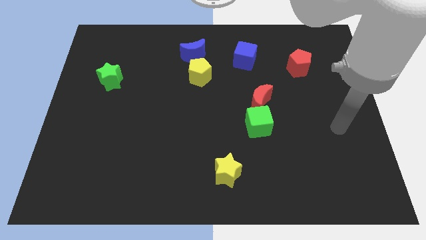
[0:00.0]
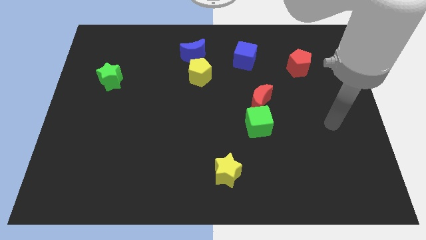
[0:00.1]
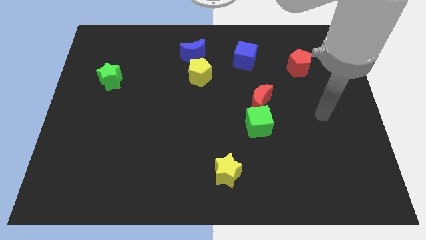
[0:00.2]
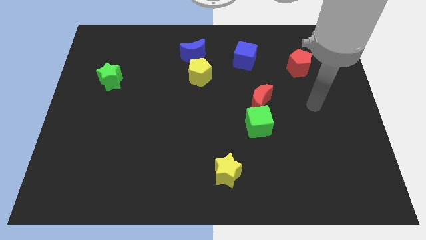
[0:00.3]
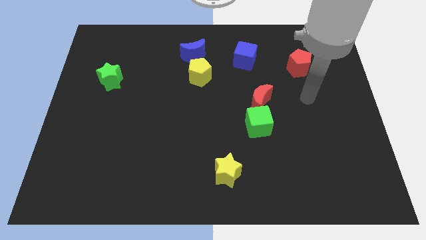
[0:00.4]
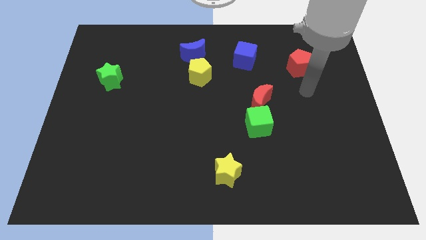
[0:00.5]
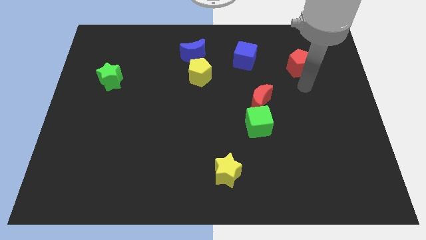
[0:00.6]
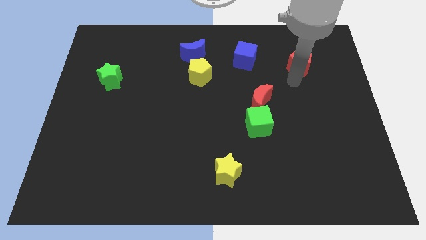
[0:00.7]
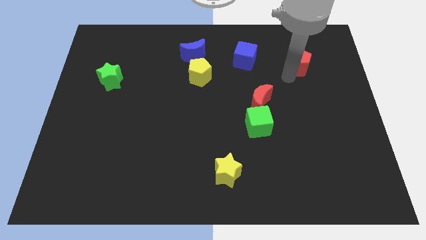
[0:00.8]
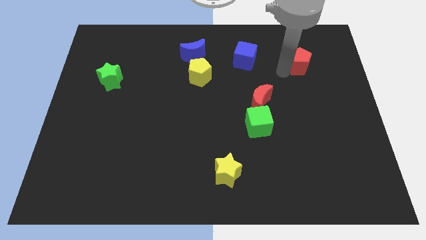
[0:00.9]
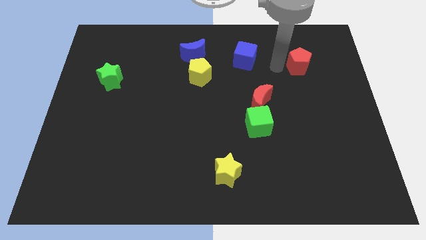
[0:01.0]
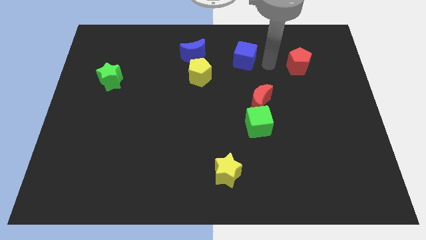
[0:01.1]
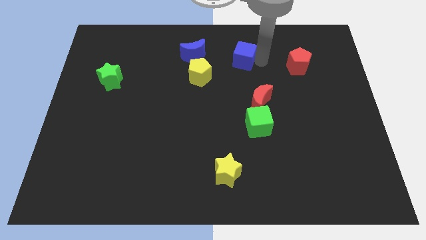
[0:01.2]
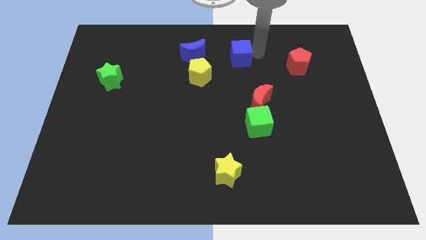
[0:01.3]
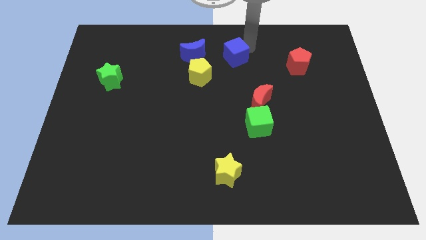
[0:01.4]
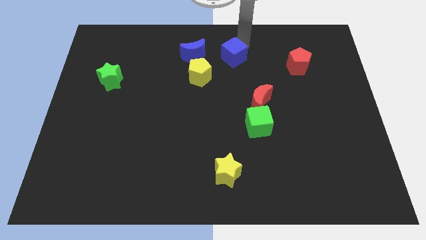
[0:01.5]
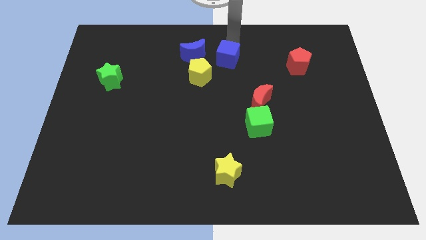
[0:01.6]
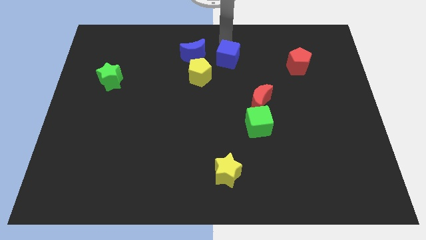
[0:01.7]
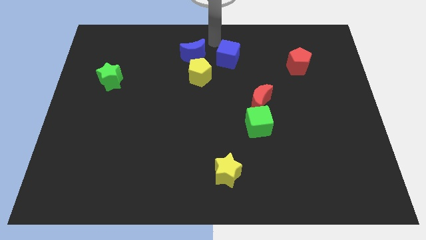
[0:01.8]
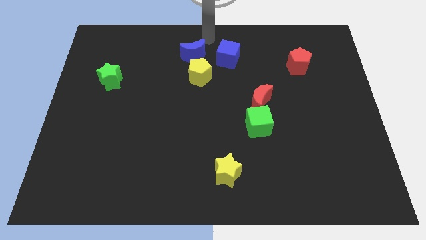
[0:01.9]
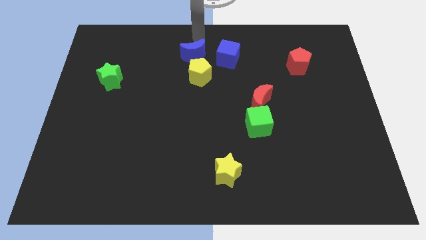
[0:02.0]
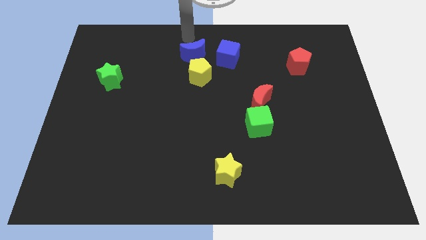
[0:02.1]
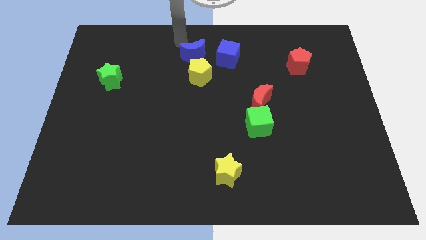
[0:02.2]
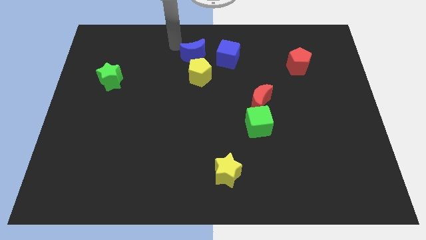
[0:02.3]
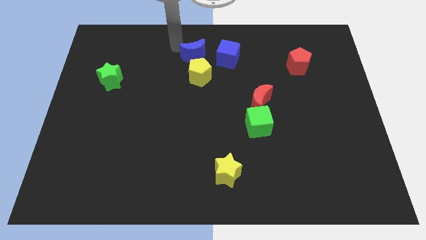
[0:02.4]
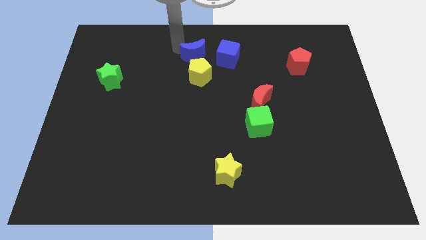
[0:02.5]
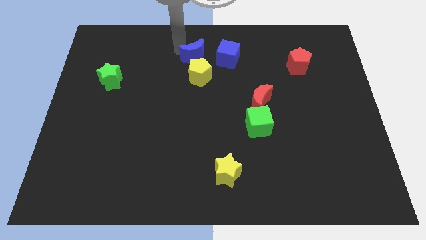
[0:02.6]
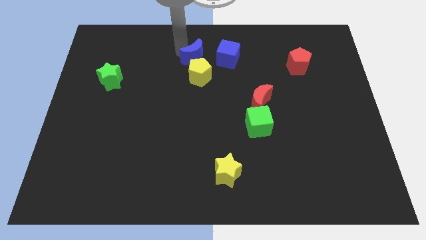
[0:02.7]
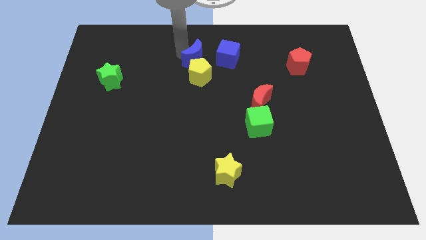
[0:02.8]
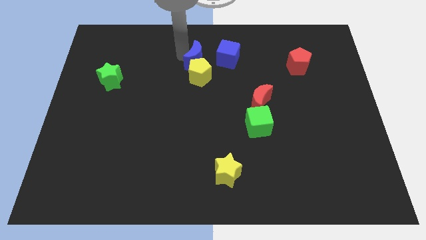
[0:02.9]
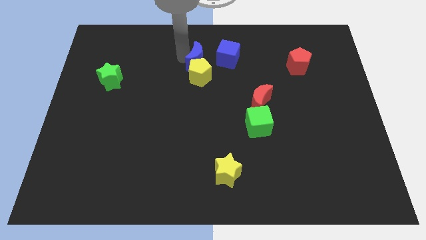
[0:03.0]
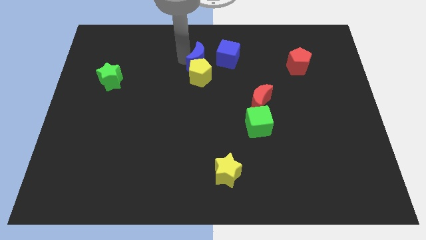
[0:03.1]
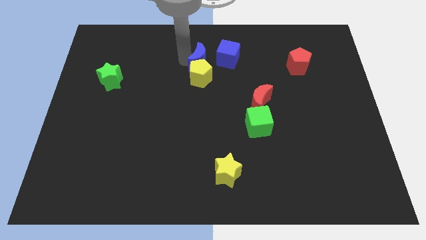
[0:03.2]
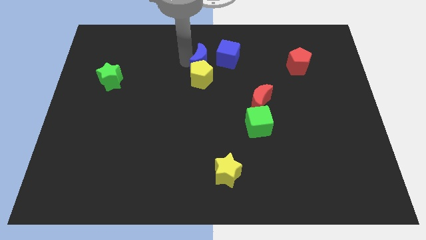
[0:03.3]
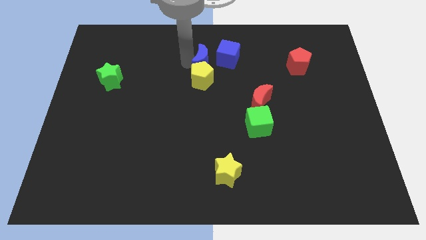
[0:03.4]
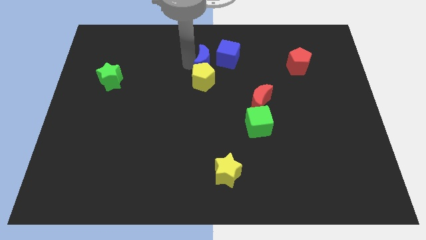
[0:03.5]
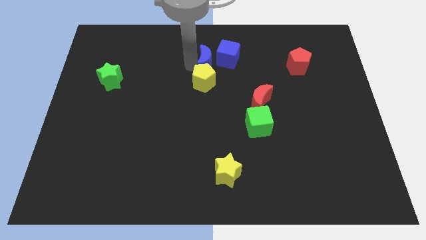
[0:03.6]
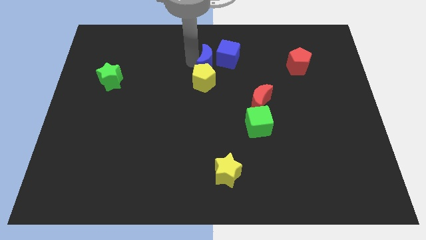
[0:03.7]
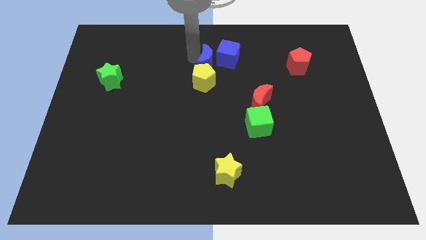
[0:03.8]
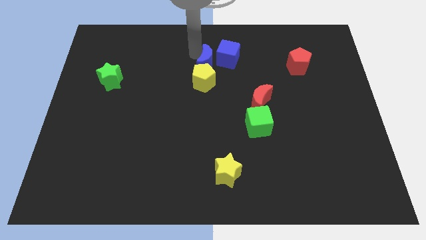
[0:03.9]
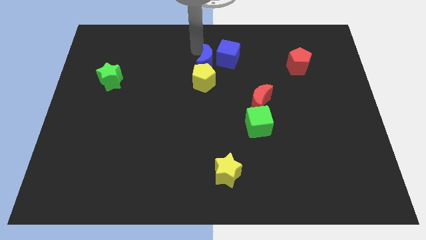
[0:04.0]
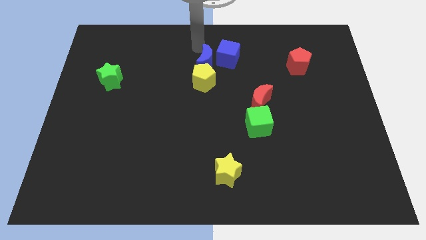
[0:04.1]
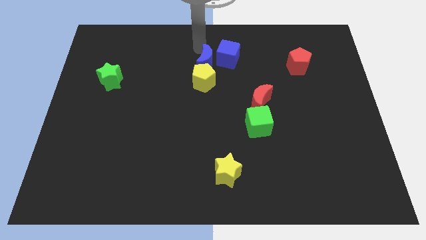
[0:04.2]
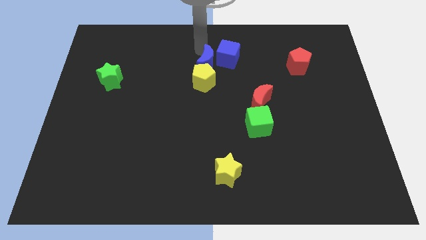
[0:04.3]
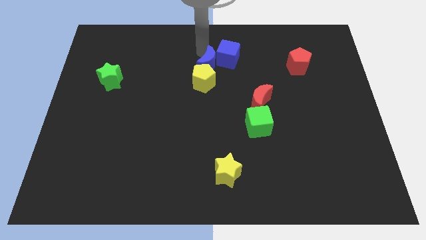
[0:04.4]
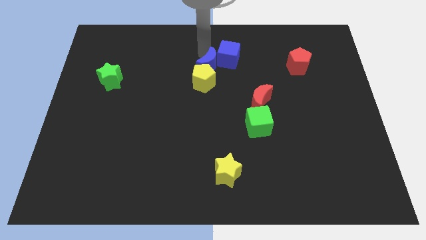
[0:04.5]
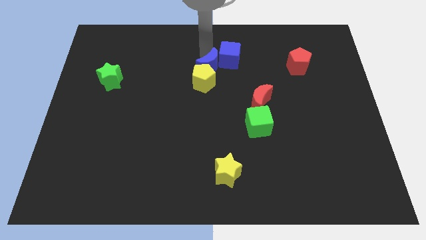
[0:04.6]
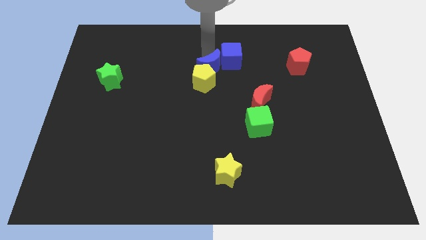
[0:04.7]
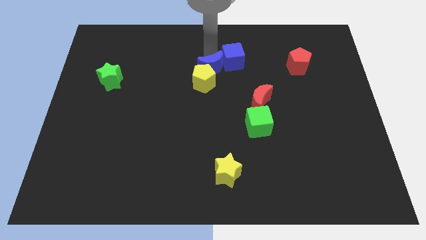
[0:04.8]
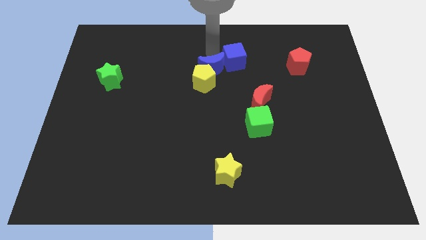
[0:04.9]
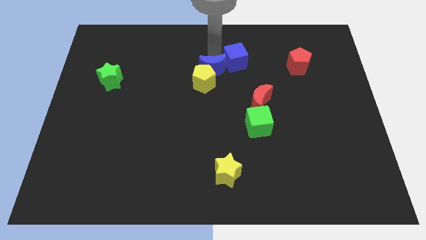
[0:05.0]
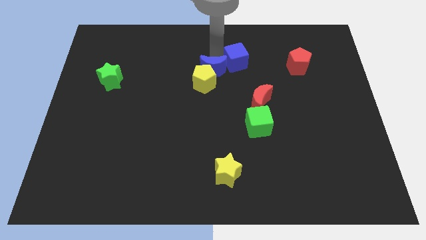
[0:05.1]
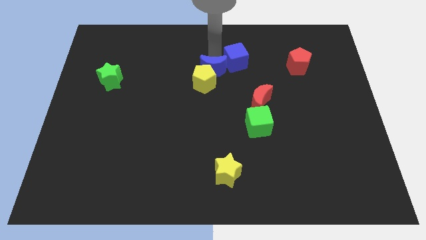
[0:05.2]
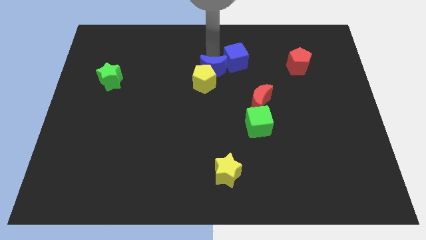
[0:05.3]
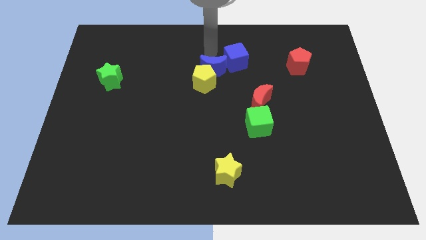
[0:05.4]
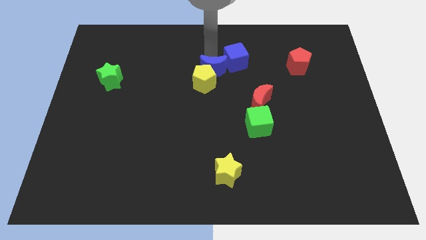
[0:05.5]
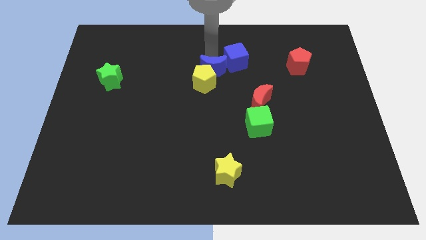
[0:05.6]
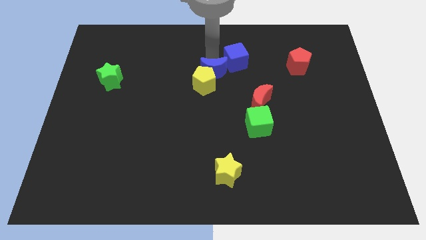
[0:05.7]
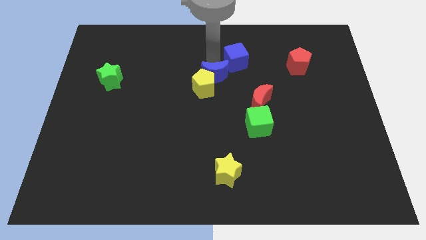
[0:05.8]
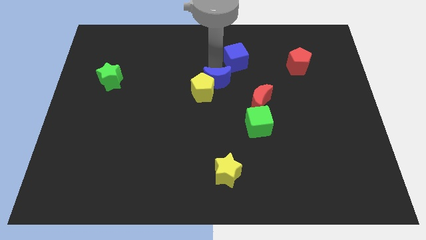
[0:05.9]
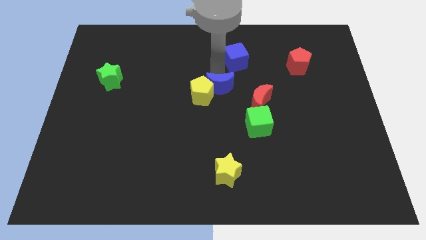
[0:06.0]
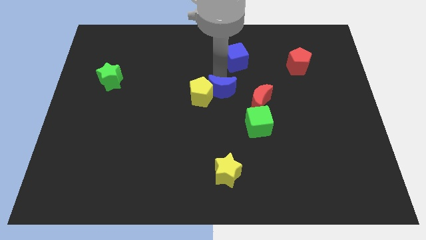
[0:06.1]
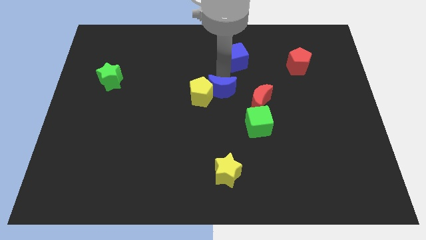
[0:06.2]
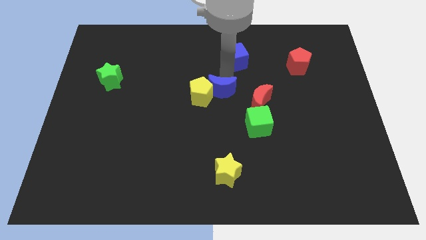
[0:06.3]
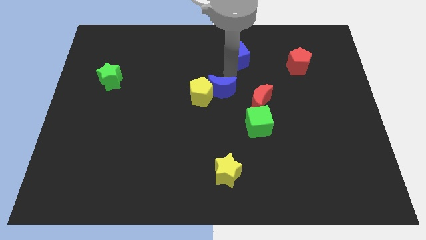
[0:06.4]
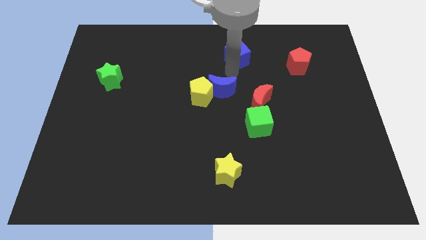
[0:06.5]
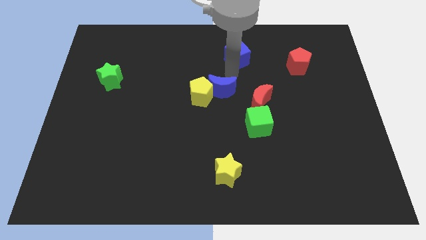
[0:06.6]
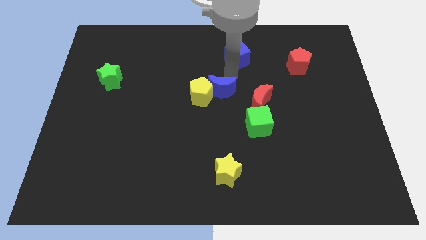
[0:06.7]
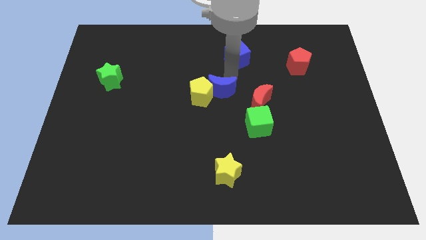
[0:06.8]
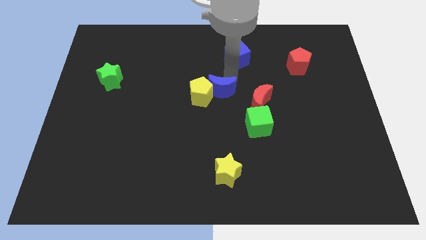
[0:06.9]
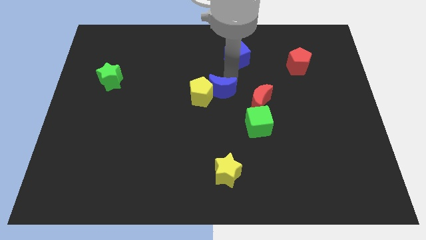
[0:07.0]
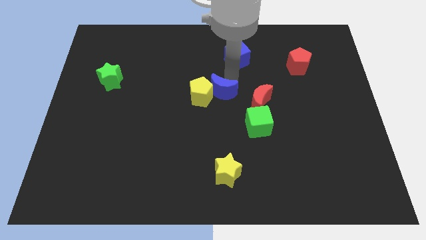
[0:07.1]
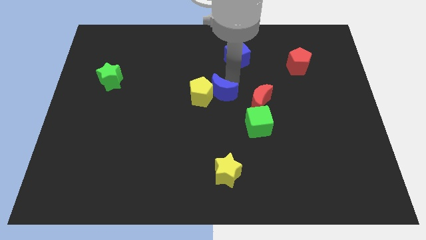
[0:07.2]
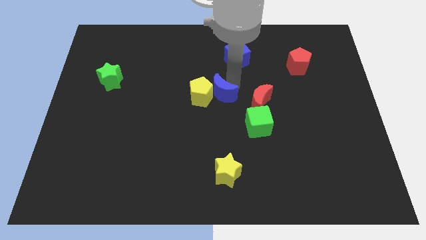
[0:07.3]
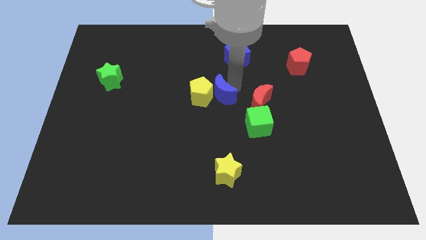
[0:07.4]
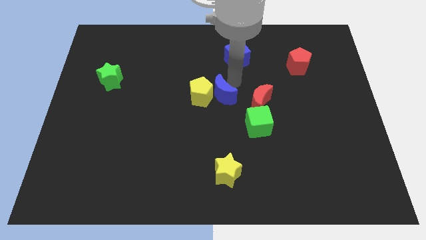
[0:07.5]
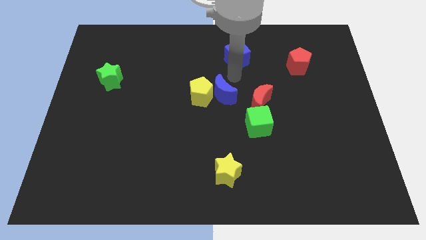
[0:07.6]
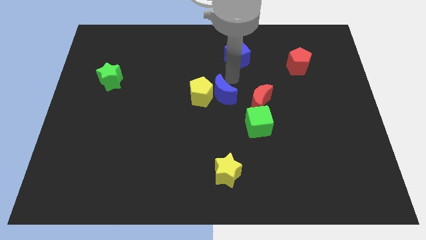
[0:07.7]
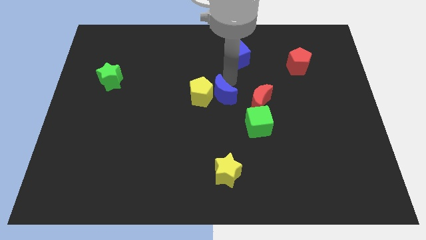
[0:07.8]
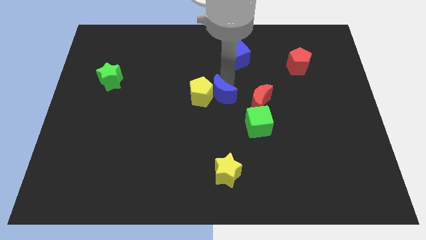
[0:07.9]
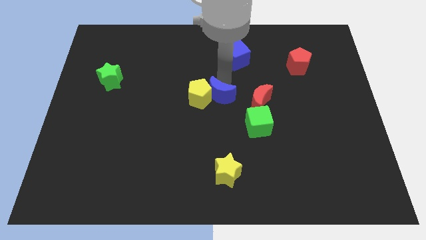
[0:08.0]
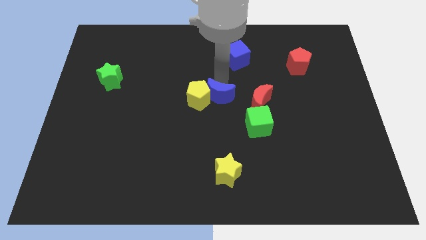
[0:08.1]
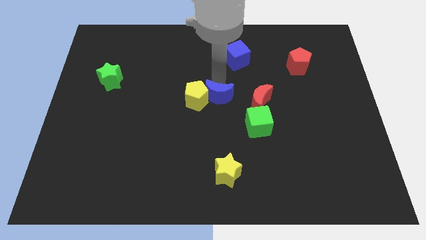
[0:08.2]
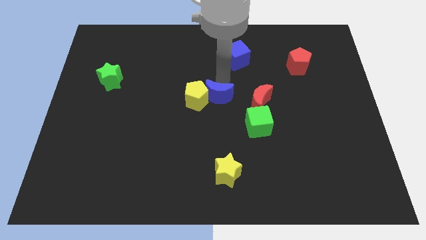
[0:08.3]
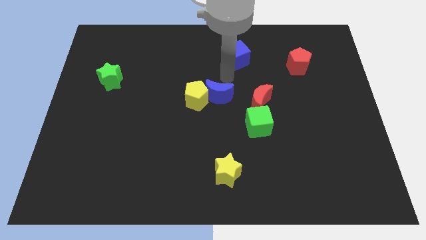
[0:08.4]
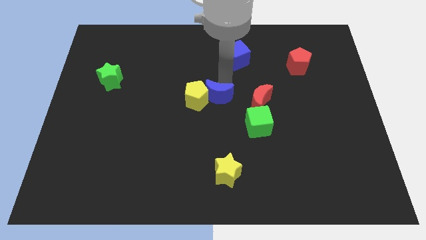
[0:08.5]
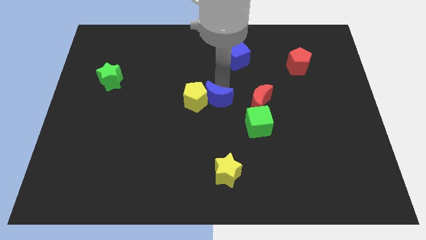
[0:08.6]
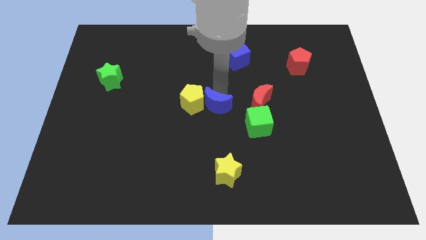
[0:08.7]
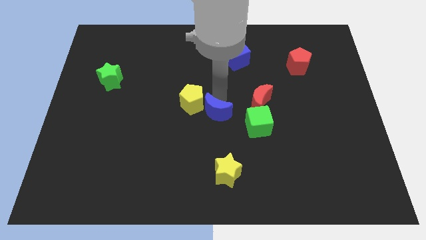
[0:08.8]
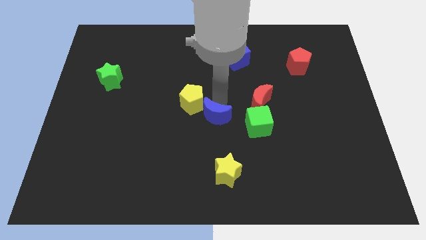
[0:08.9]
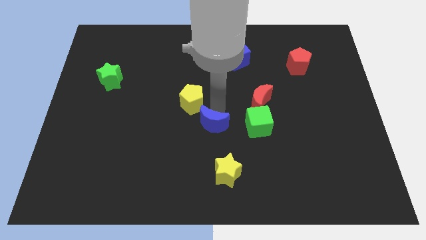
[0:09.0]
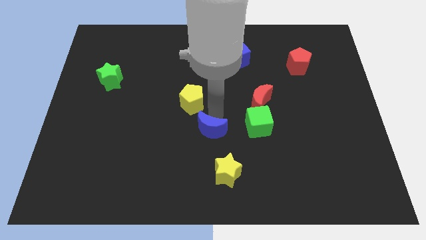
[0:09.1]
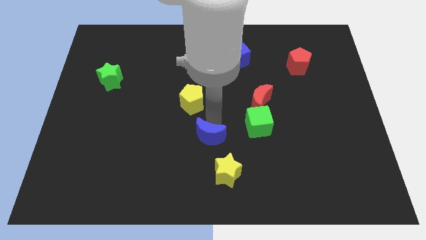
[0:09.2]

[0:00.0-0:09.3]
put the blue moon to the top left of the yellow star
